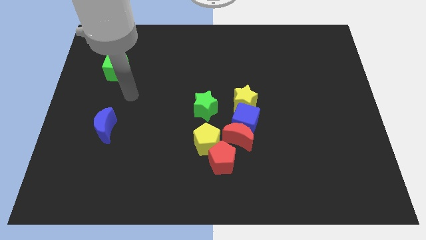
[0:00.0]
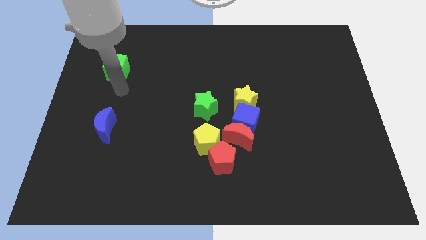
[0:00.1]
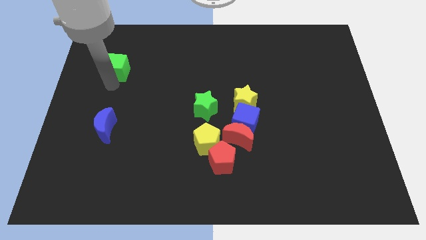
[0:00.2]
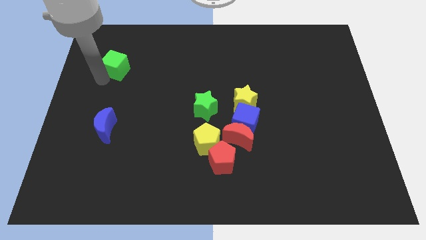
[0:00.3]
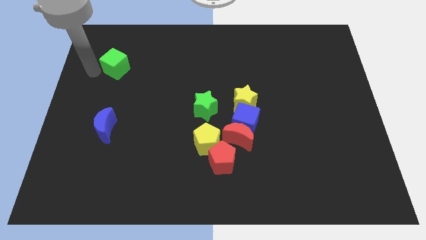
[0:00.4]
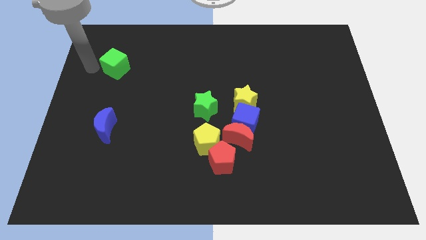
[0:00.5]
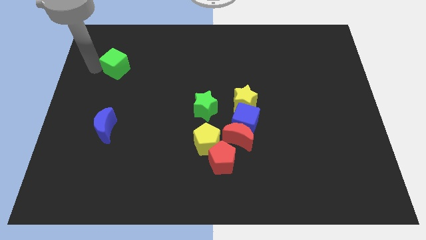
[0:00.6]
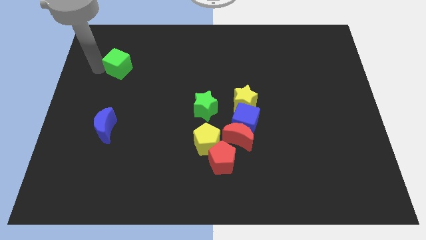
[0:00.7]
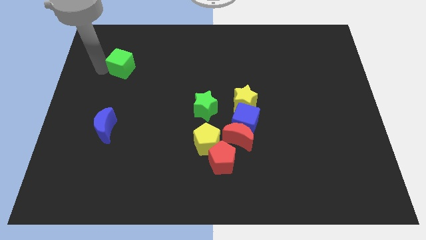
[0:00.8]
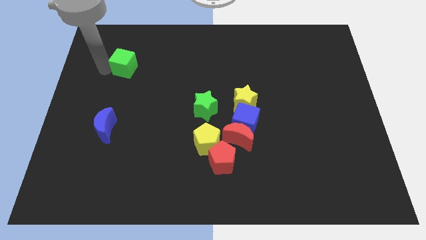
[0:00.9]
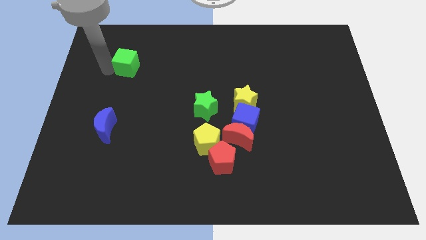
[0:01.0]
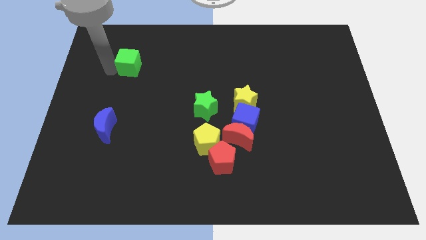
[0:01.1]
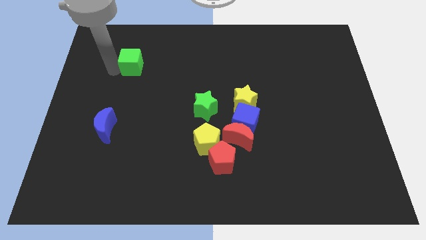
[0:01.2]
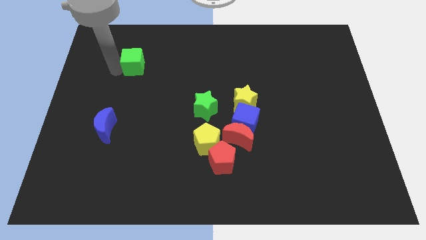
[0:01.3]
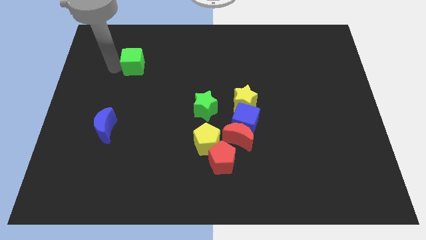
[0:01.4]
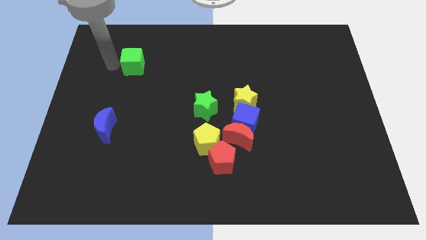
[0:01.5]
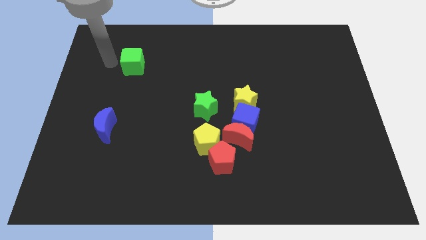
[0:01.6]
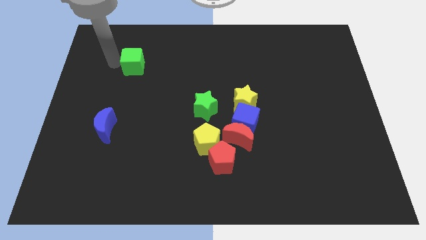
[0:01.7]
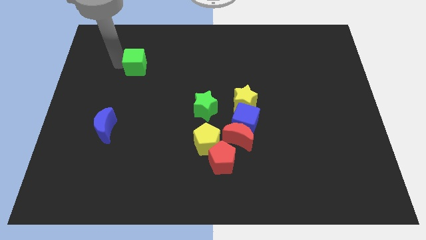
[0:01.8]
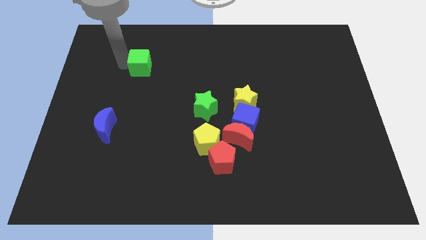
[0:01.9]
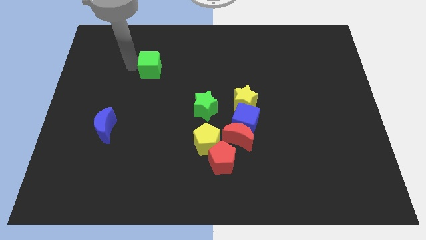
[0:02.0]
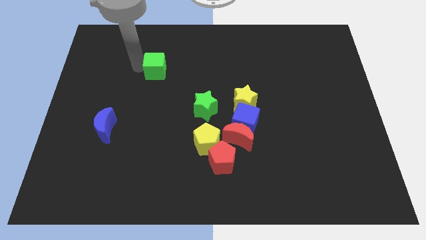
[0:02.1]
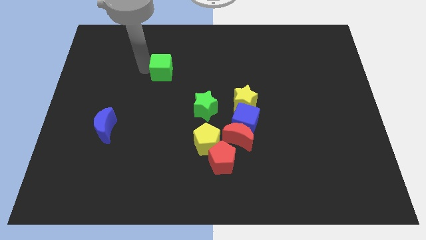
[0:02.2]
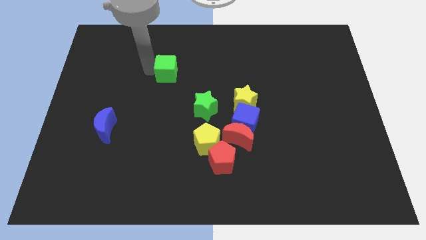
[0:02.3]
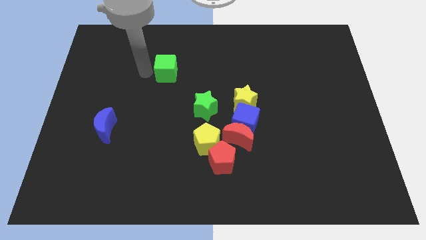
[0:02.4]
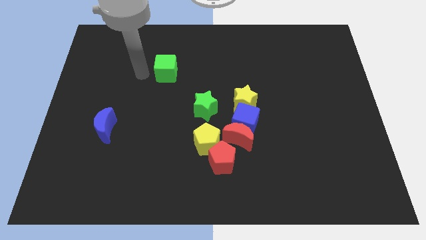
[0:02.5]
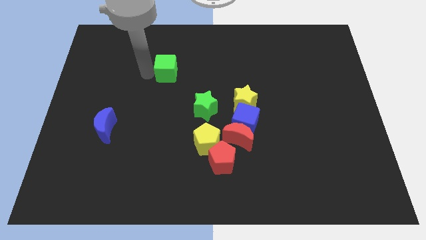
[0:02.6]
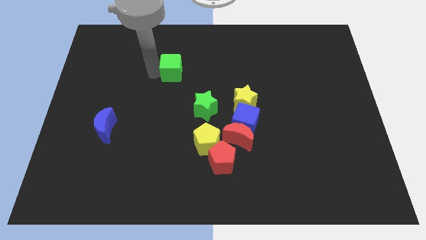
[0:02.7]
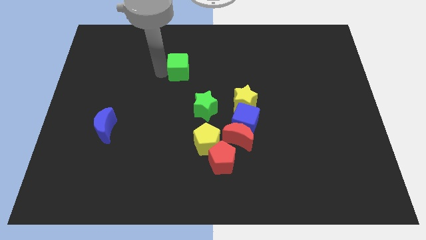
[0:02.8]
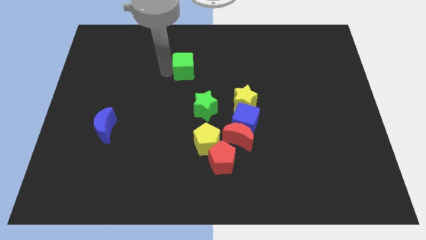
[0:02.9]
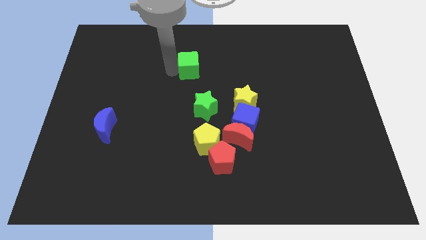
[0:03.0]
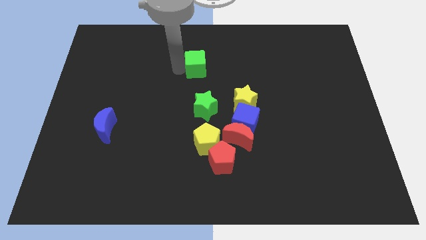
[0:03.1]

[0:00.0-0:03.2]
slide the green cube right

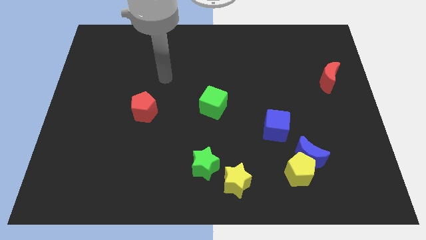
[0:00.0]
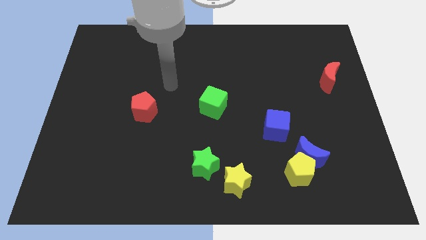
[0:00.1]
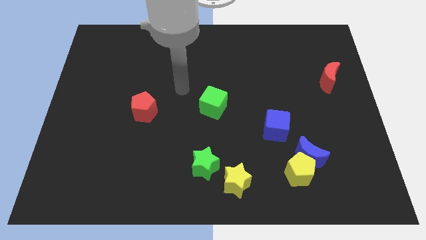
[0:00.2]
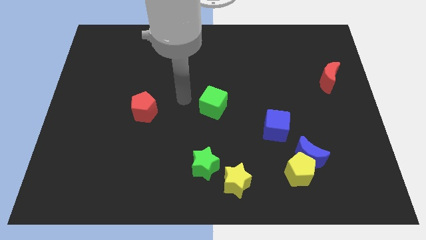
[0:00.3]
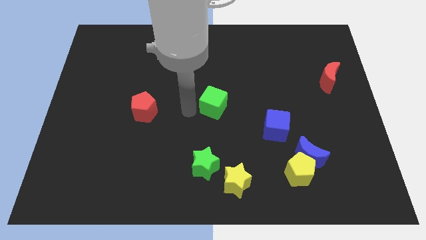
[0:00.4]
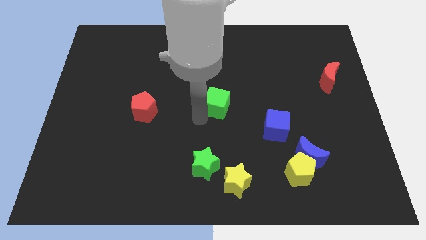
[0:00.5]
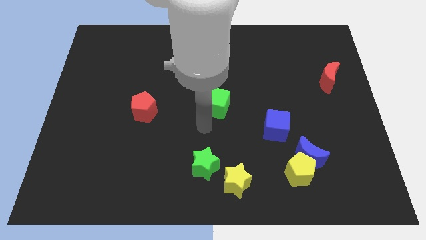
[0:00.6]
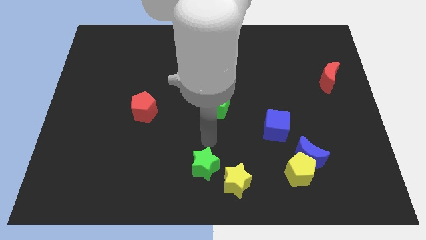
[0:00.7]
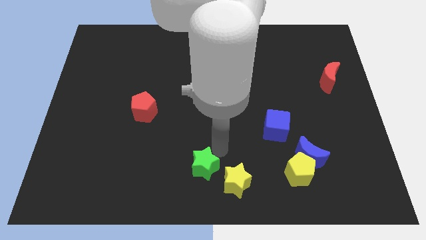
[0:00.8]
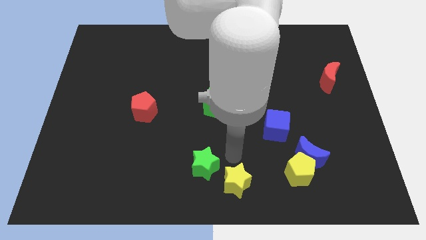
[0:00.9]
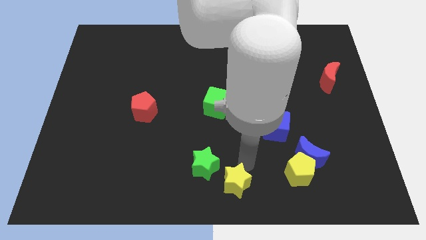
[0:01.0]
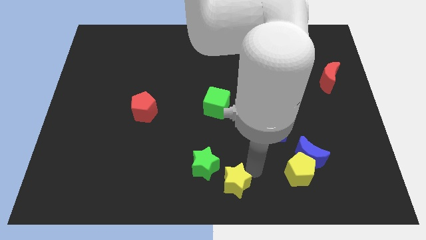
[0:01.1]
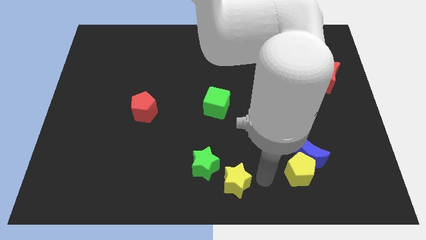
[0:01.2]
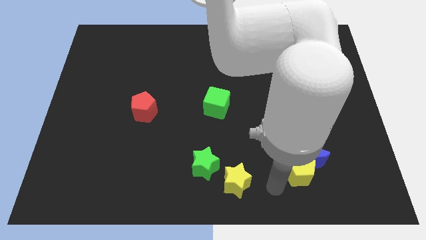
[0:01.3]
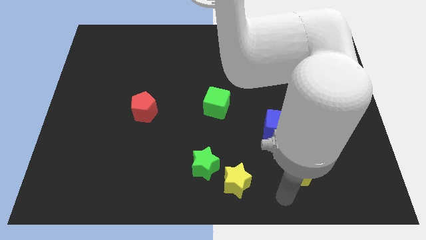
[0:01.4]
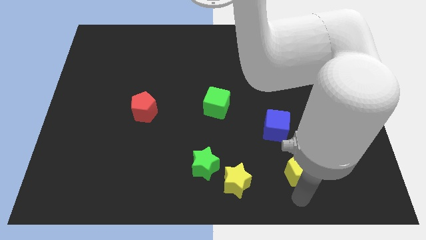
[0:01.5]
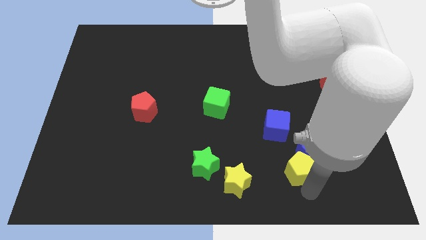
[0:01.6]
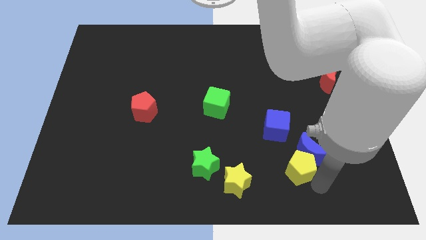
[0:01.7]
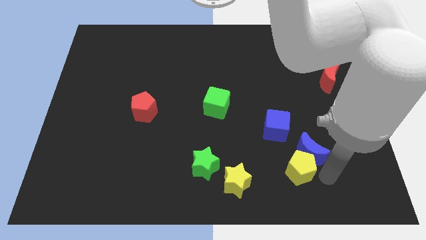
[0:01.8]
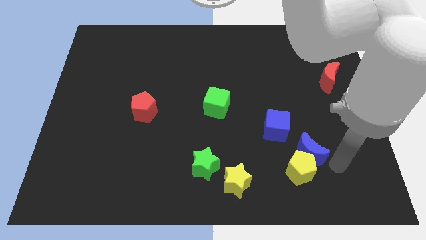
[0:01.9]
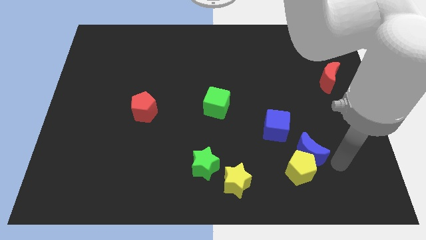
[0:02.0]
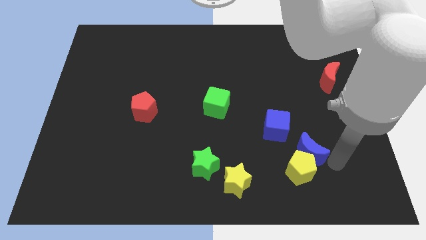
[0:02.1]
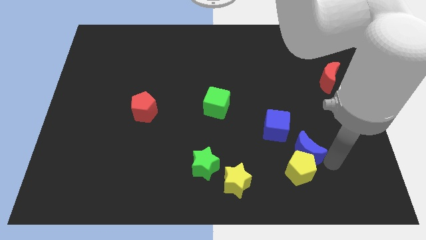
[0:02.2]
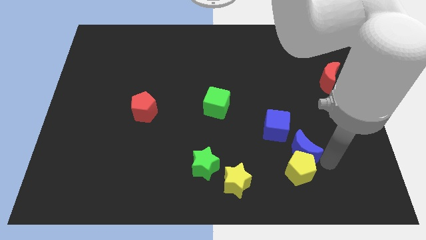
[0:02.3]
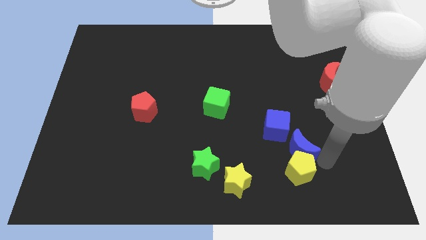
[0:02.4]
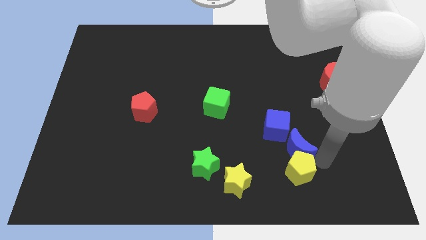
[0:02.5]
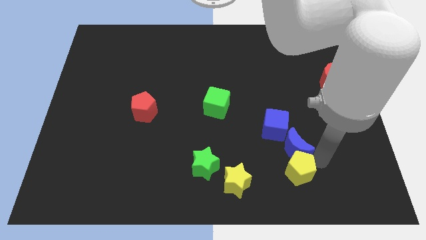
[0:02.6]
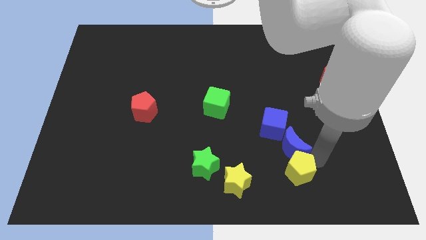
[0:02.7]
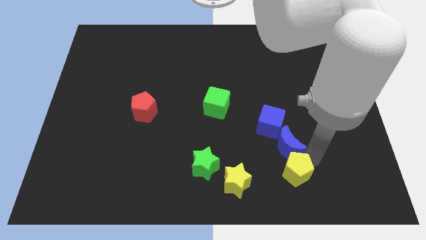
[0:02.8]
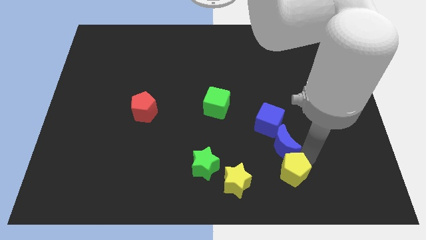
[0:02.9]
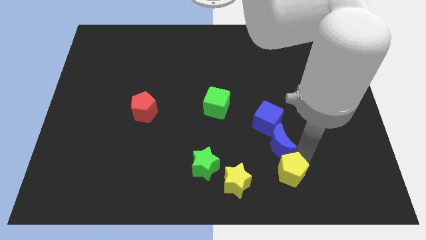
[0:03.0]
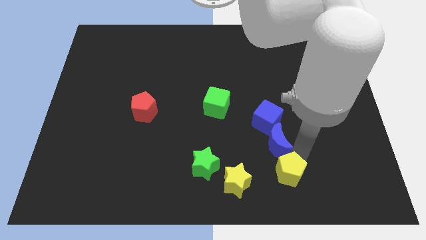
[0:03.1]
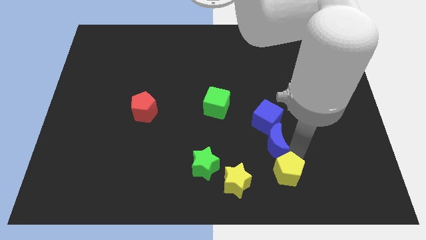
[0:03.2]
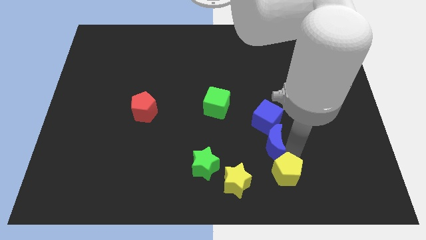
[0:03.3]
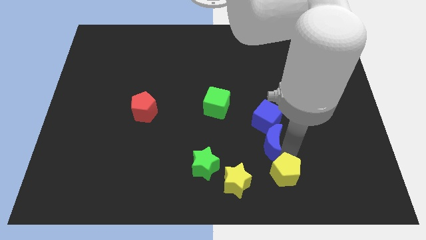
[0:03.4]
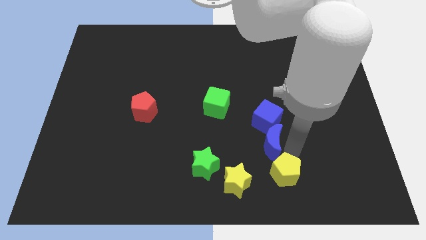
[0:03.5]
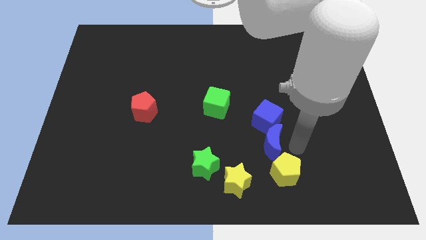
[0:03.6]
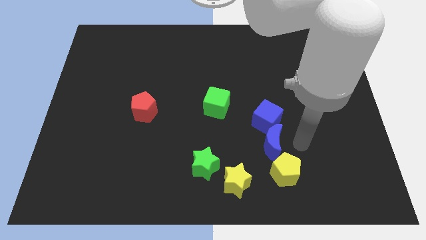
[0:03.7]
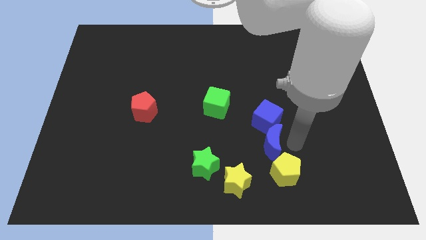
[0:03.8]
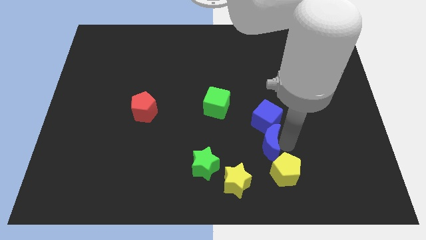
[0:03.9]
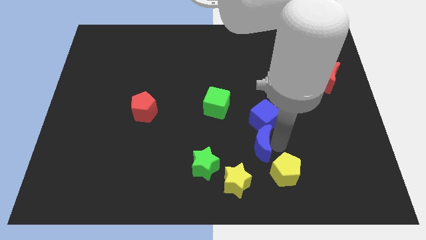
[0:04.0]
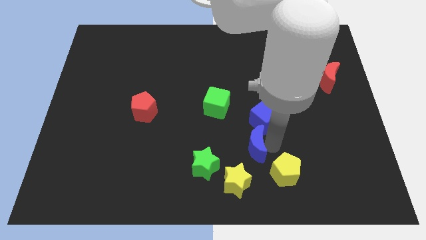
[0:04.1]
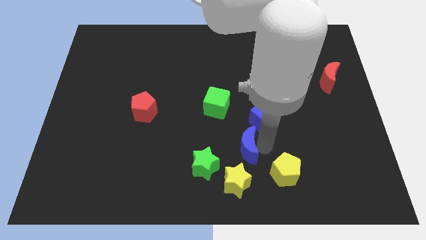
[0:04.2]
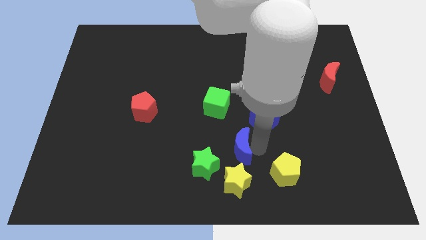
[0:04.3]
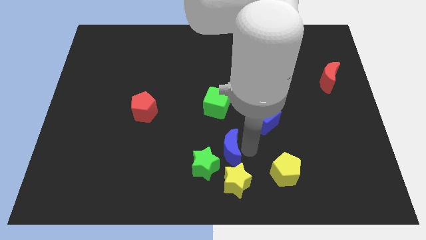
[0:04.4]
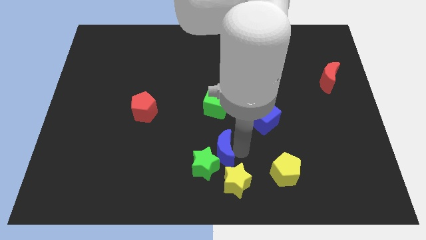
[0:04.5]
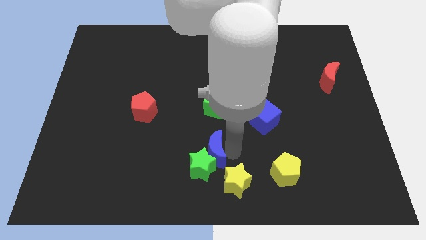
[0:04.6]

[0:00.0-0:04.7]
slide the blue moon to the left
